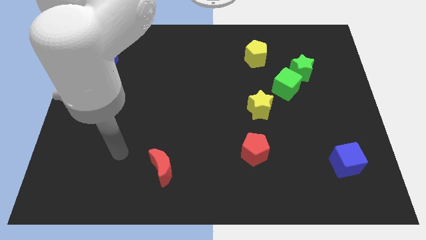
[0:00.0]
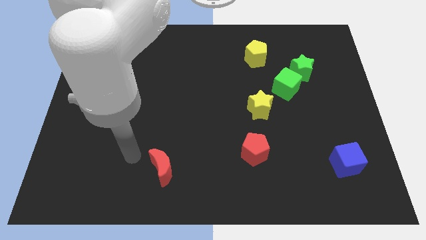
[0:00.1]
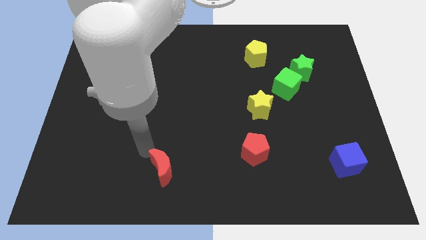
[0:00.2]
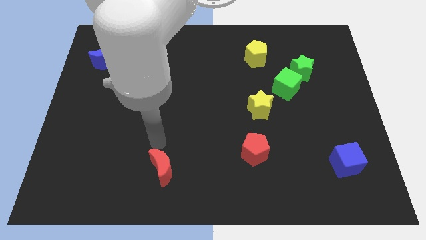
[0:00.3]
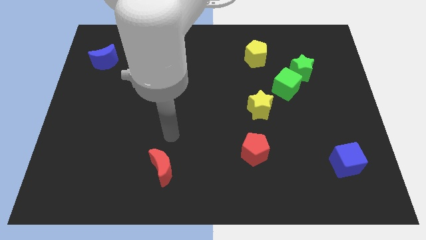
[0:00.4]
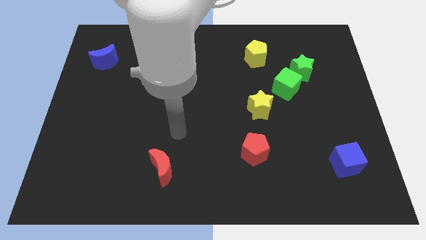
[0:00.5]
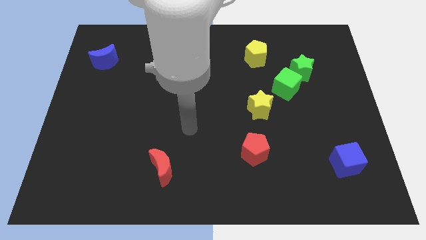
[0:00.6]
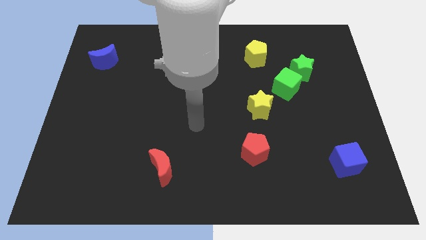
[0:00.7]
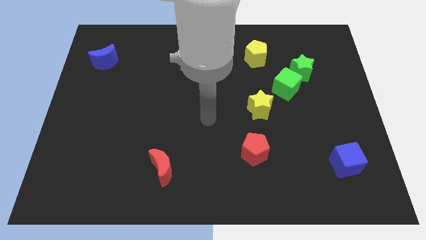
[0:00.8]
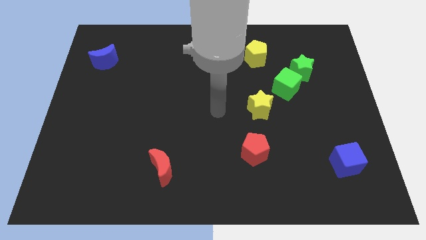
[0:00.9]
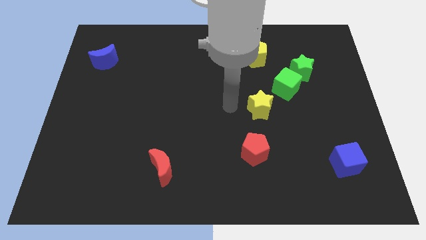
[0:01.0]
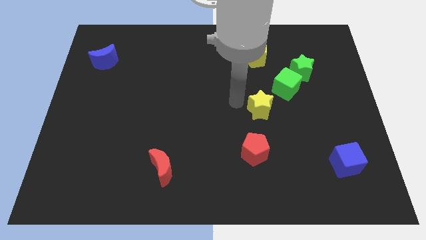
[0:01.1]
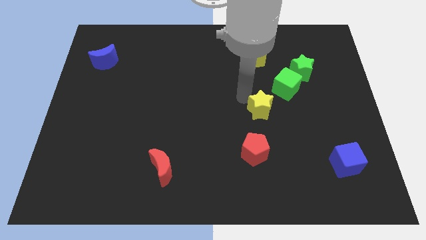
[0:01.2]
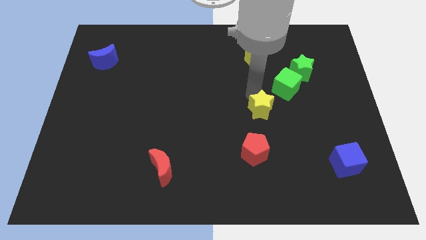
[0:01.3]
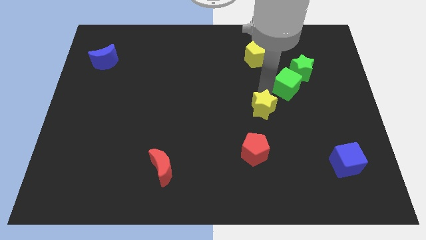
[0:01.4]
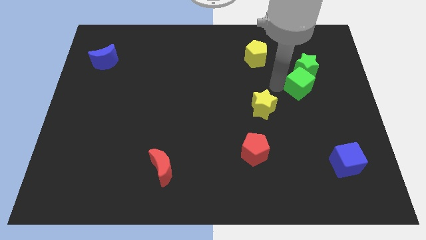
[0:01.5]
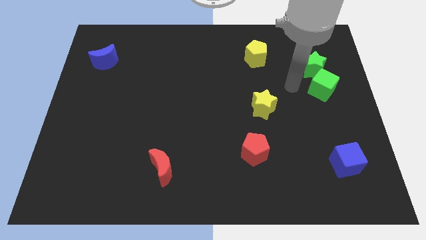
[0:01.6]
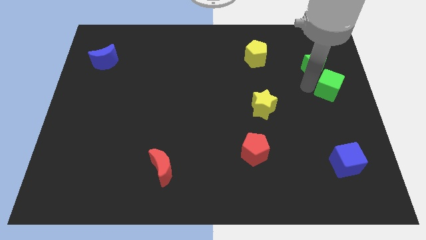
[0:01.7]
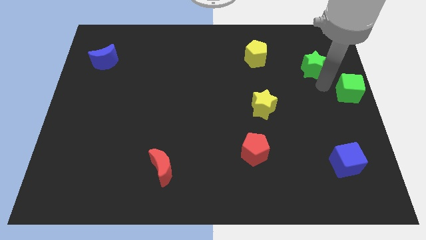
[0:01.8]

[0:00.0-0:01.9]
pull the green star apart from the green cube

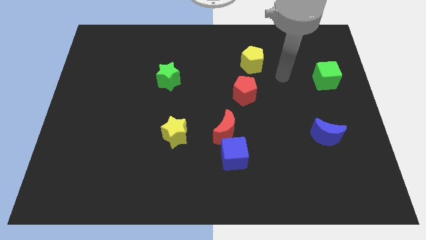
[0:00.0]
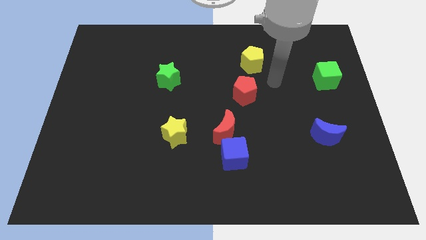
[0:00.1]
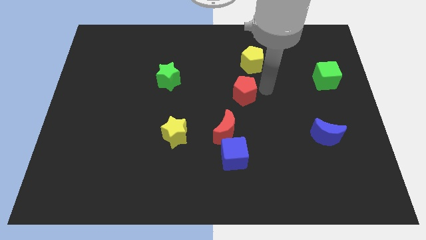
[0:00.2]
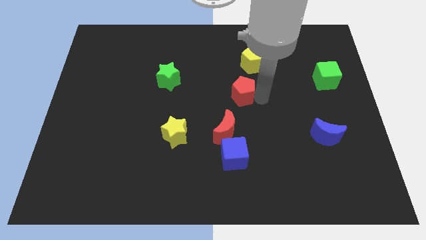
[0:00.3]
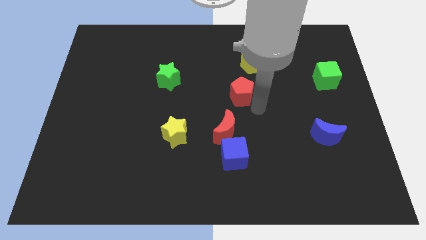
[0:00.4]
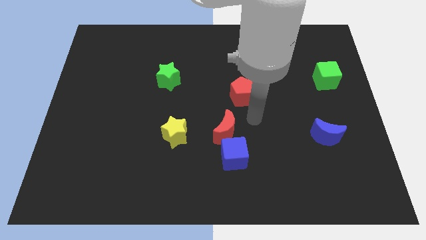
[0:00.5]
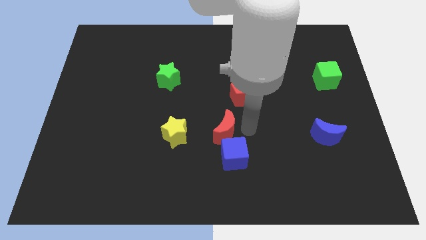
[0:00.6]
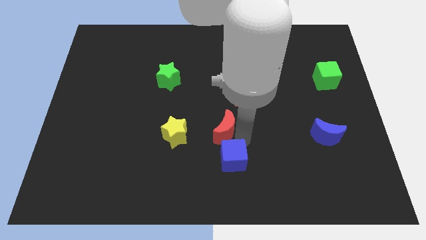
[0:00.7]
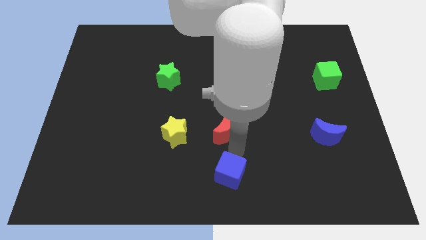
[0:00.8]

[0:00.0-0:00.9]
separate the red moon from the blue cube

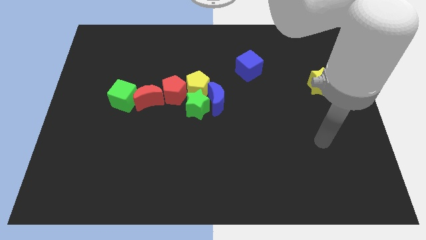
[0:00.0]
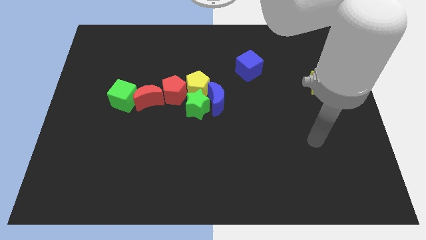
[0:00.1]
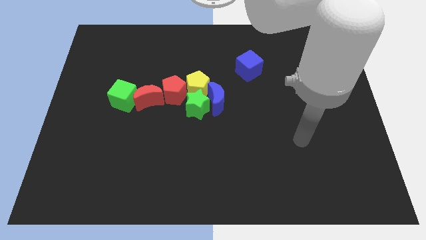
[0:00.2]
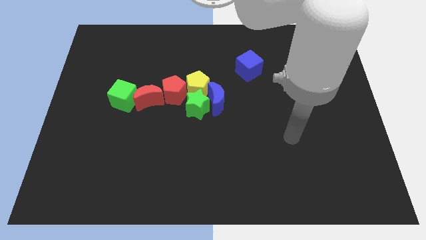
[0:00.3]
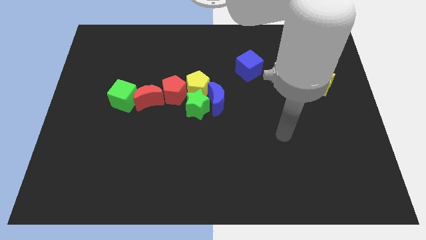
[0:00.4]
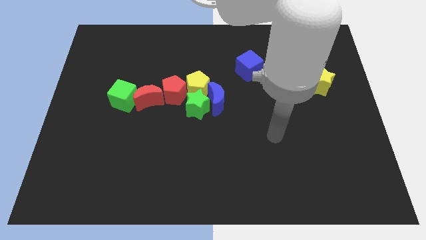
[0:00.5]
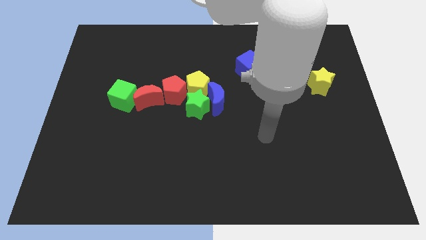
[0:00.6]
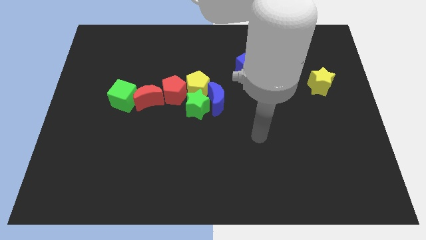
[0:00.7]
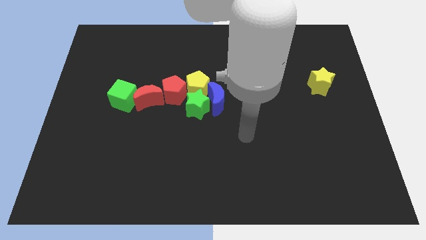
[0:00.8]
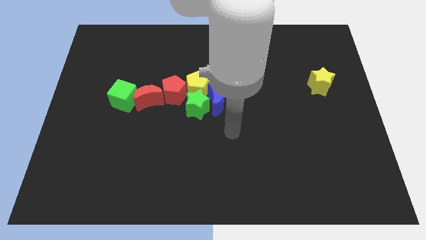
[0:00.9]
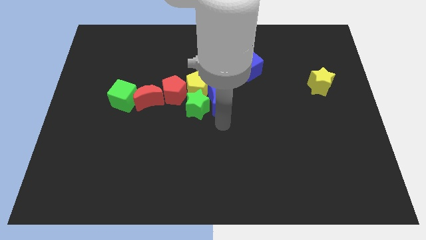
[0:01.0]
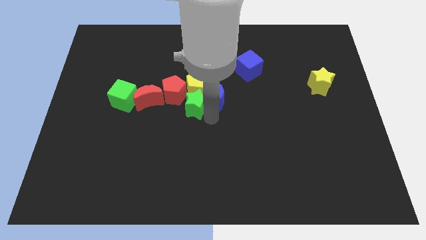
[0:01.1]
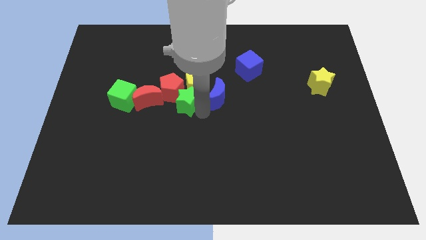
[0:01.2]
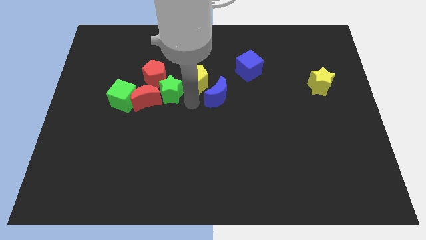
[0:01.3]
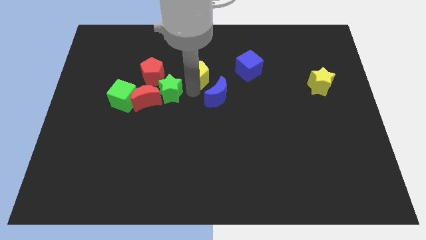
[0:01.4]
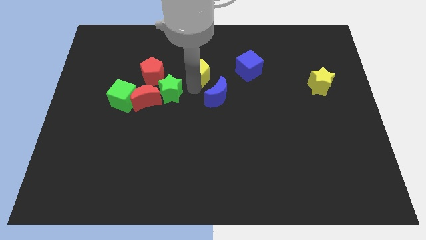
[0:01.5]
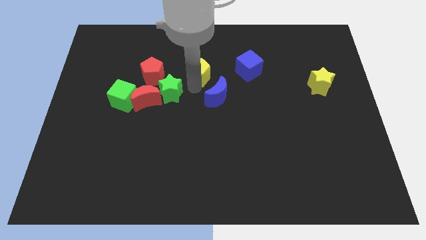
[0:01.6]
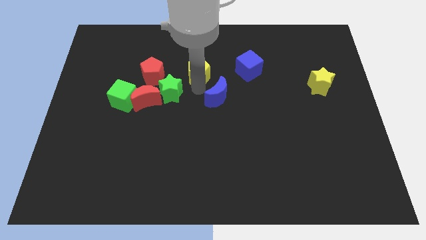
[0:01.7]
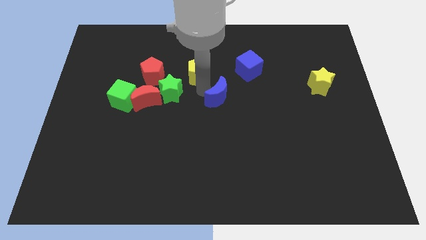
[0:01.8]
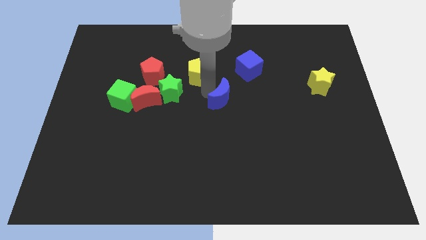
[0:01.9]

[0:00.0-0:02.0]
pull the blue moon apart from the green star and yellow pentagon

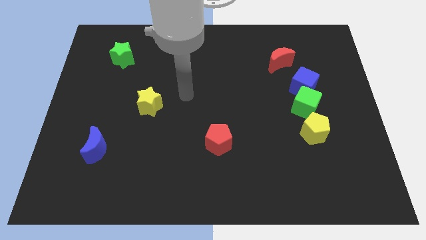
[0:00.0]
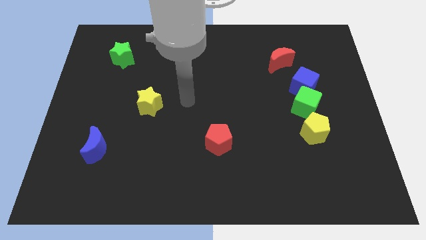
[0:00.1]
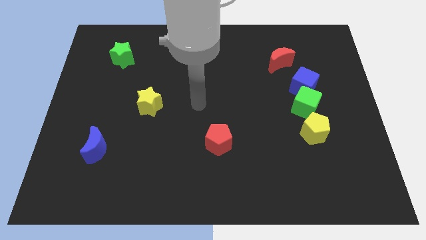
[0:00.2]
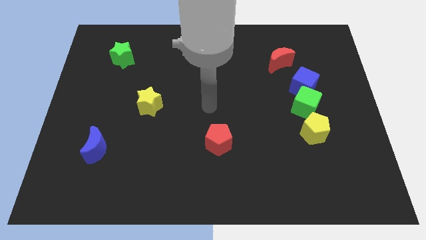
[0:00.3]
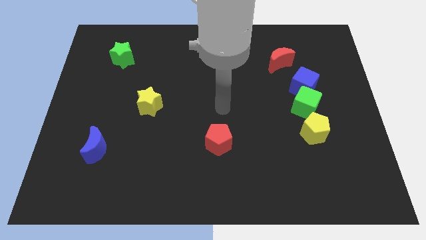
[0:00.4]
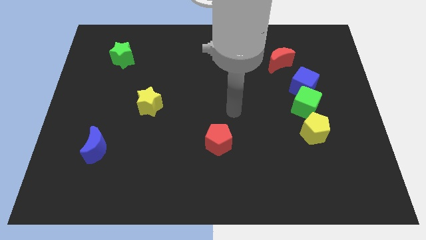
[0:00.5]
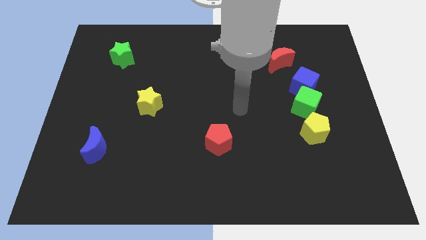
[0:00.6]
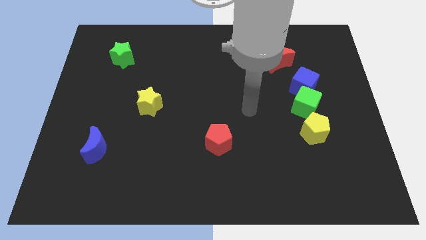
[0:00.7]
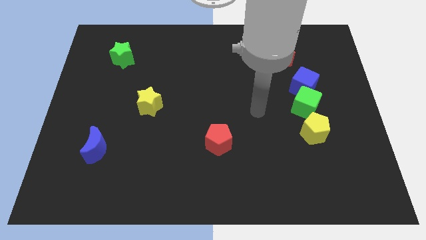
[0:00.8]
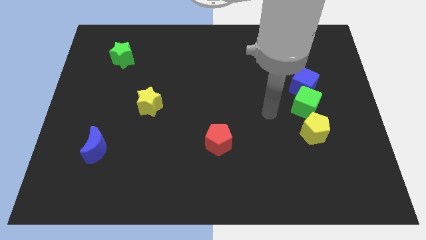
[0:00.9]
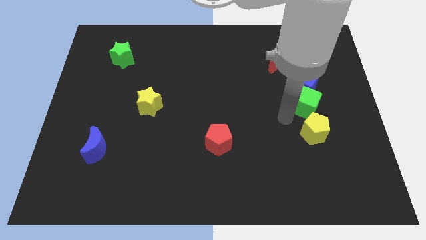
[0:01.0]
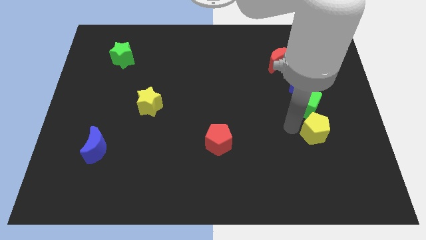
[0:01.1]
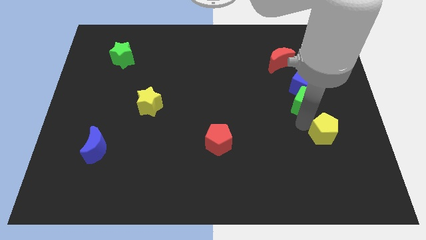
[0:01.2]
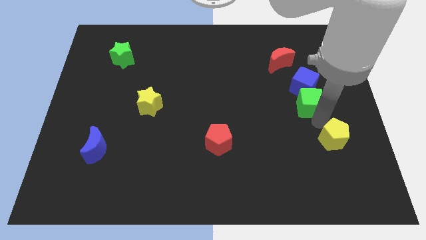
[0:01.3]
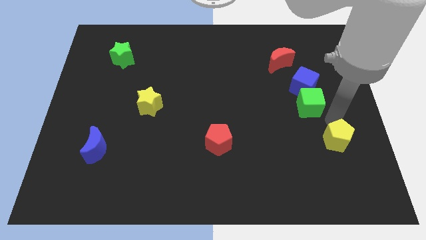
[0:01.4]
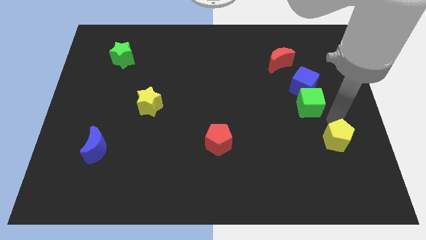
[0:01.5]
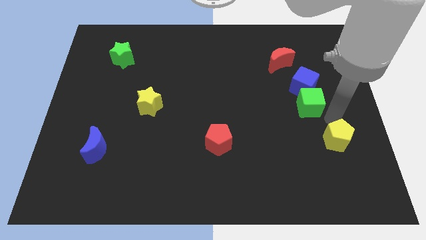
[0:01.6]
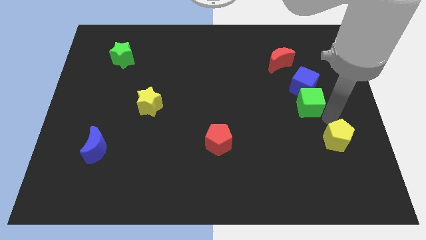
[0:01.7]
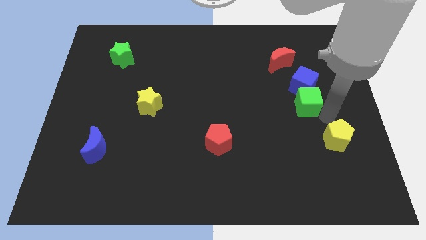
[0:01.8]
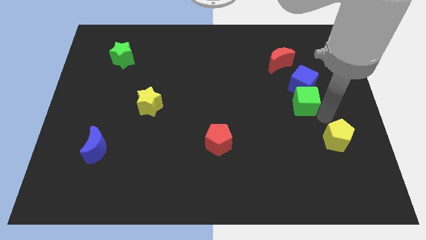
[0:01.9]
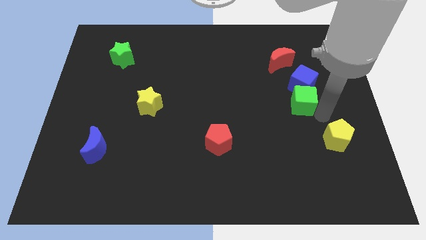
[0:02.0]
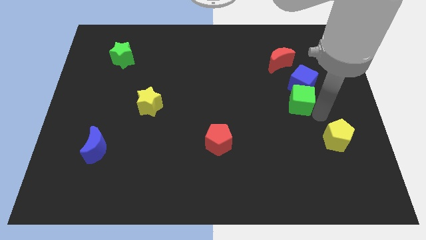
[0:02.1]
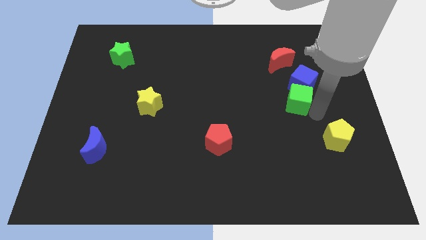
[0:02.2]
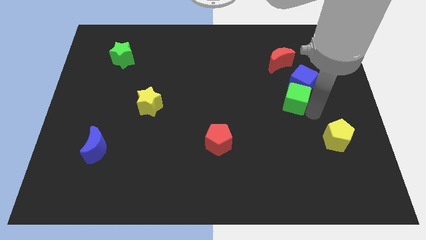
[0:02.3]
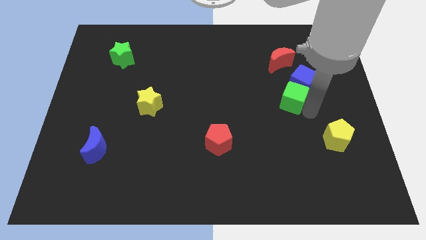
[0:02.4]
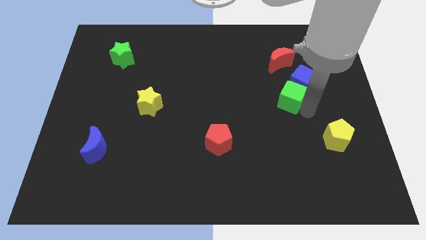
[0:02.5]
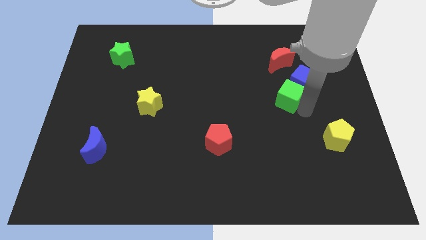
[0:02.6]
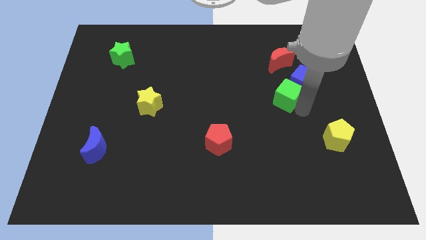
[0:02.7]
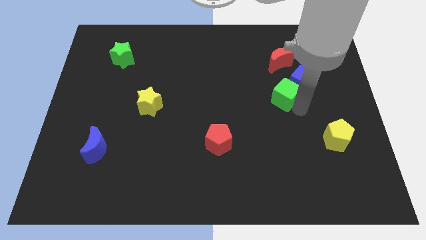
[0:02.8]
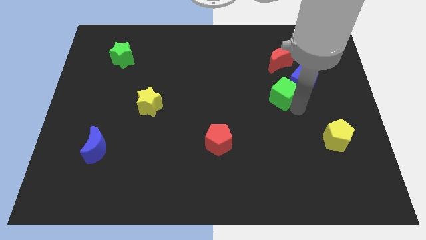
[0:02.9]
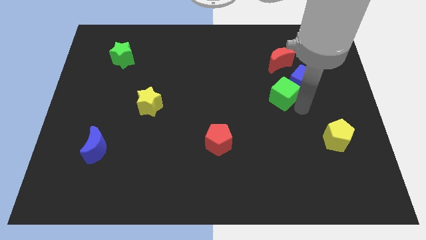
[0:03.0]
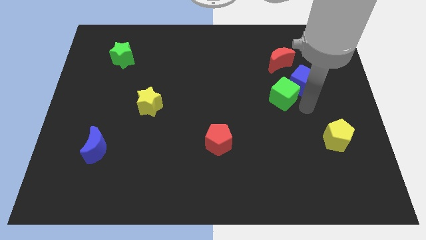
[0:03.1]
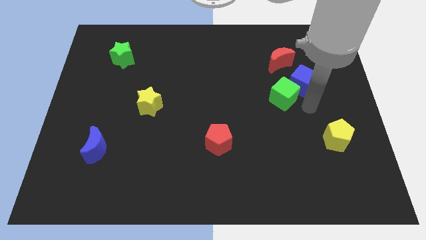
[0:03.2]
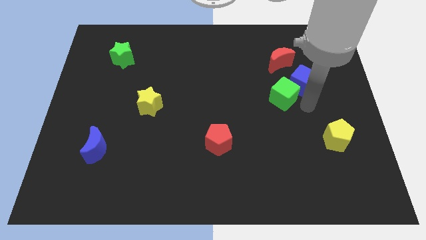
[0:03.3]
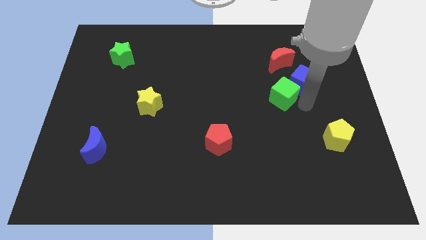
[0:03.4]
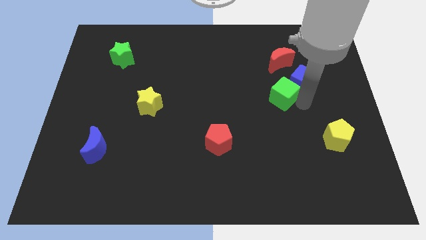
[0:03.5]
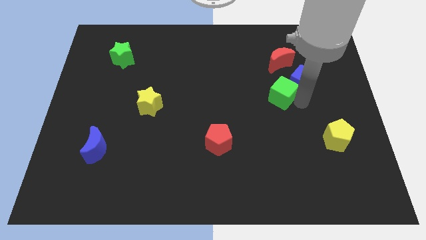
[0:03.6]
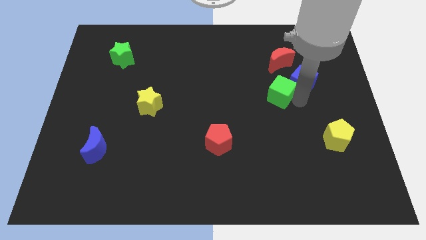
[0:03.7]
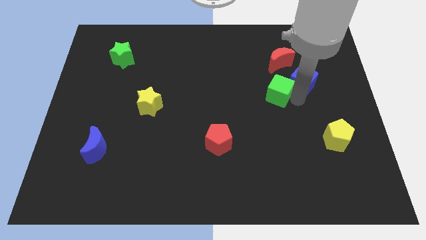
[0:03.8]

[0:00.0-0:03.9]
move the green cube away from the blue cube and yellow pentagon

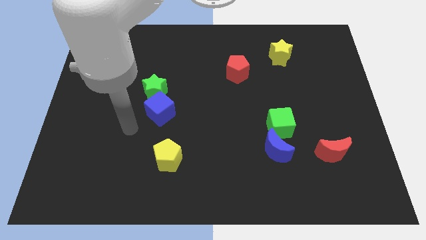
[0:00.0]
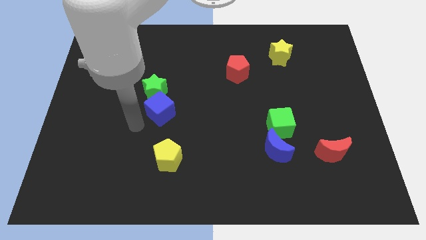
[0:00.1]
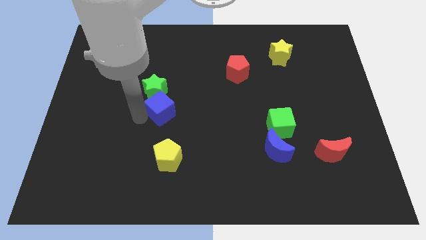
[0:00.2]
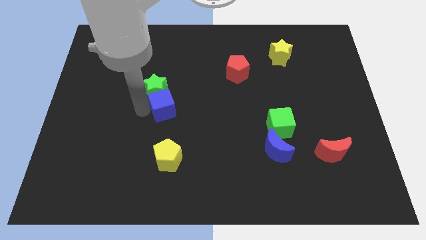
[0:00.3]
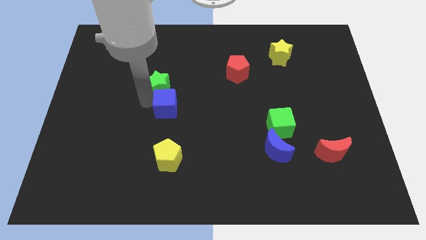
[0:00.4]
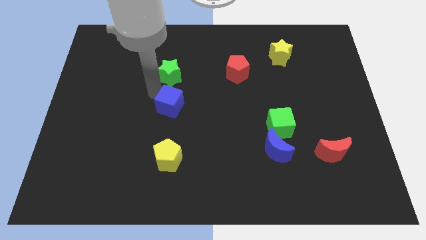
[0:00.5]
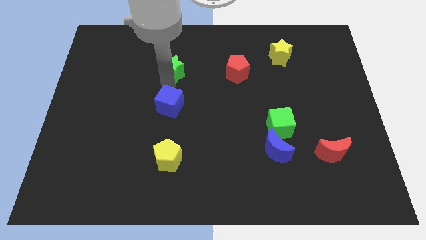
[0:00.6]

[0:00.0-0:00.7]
pull the blue cube apart from the green star
